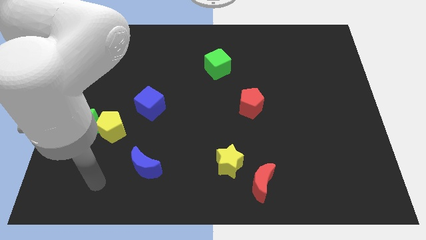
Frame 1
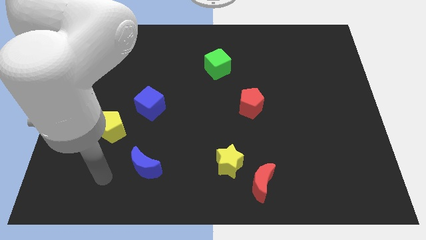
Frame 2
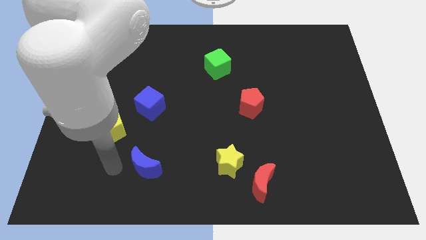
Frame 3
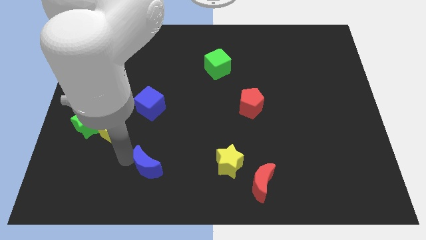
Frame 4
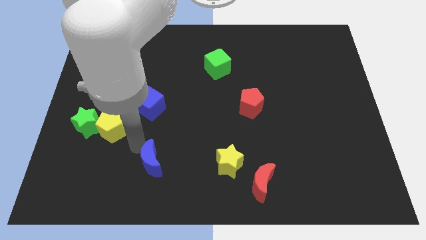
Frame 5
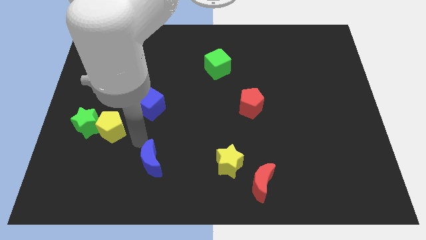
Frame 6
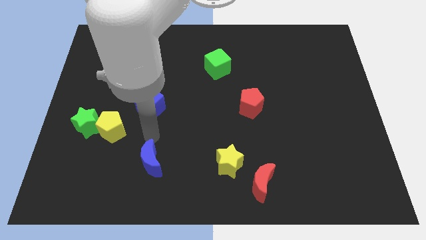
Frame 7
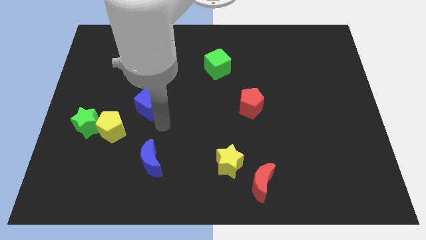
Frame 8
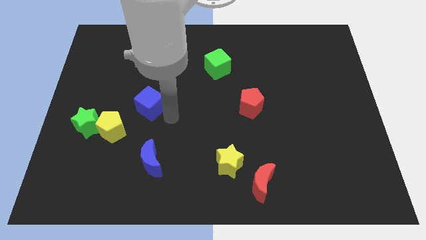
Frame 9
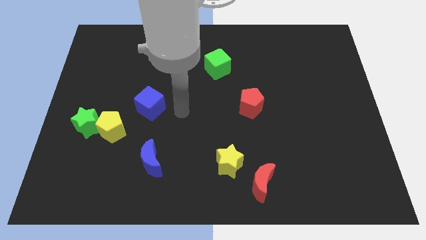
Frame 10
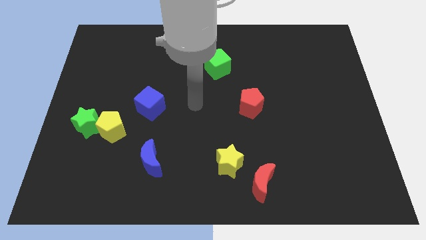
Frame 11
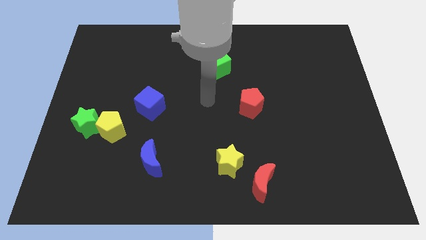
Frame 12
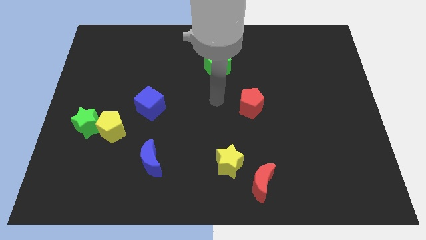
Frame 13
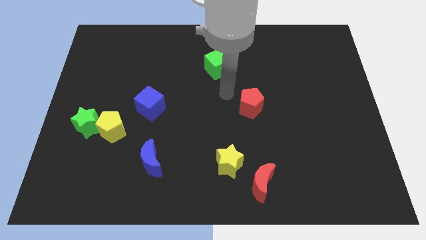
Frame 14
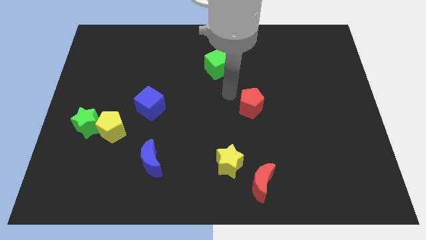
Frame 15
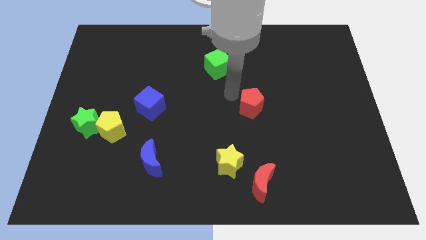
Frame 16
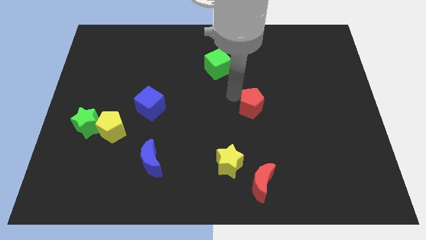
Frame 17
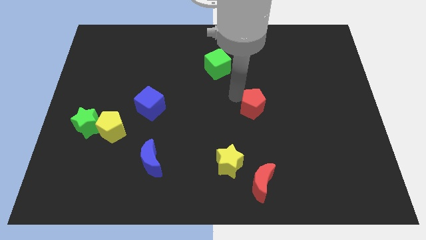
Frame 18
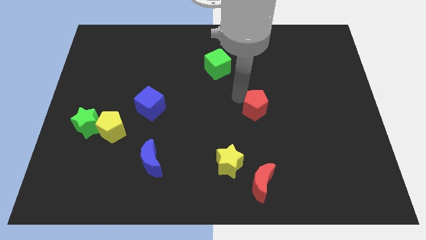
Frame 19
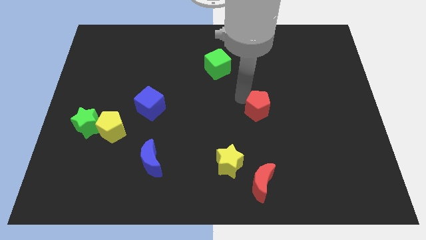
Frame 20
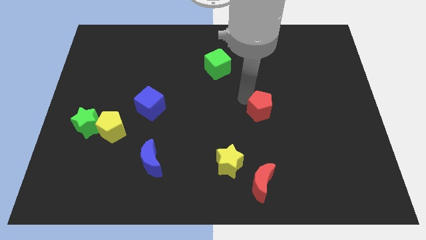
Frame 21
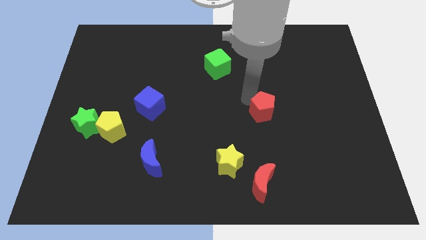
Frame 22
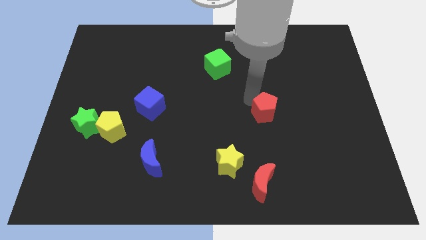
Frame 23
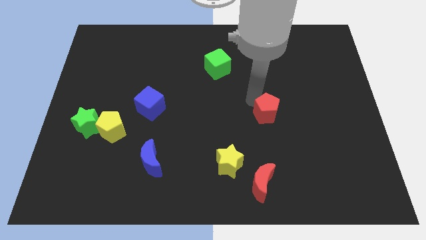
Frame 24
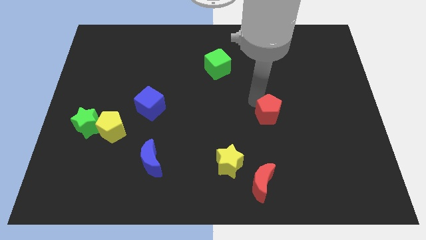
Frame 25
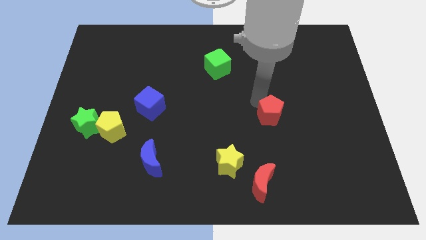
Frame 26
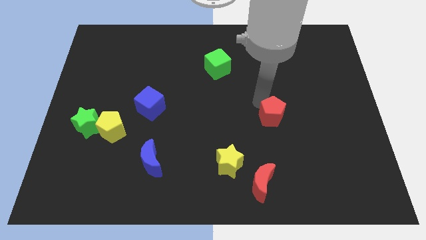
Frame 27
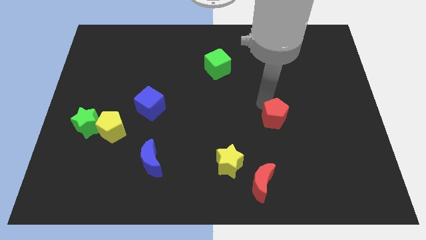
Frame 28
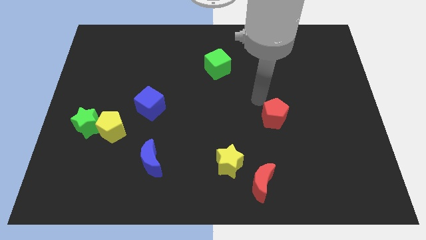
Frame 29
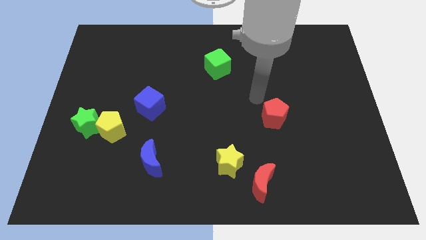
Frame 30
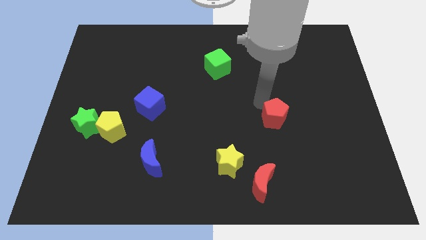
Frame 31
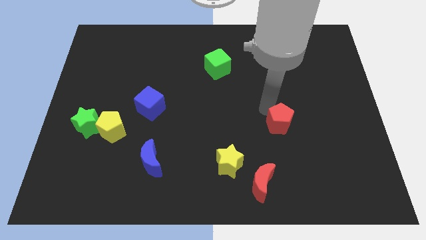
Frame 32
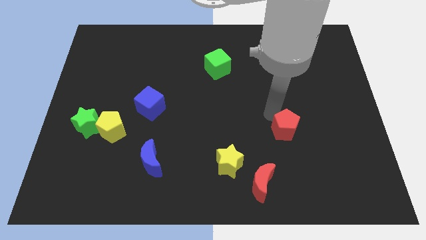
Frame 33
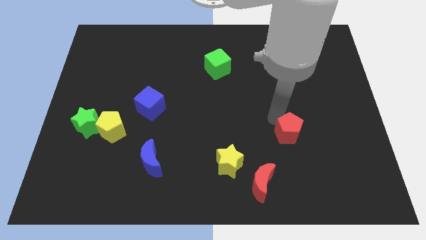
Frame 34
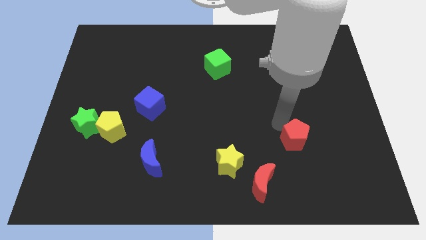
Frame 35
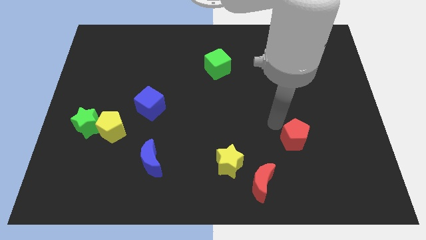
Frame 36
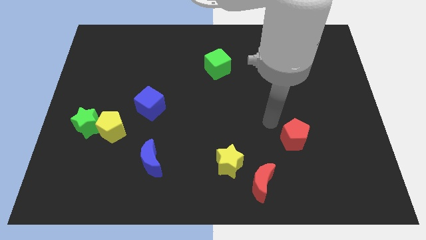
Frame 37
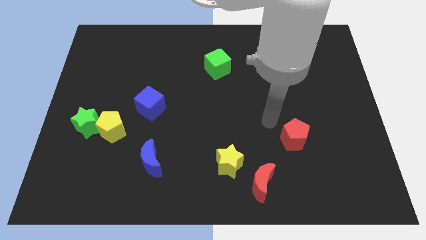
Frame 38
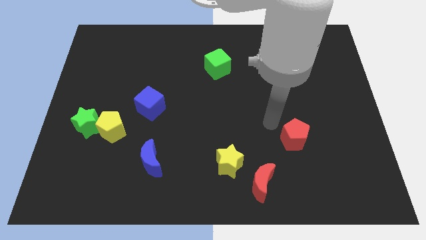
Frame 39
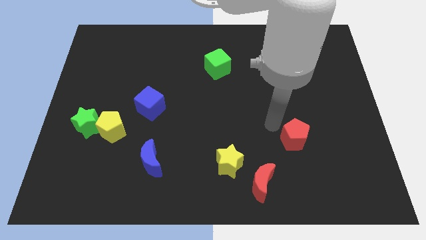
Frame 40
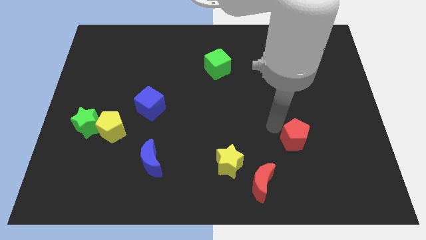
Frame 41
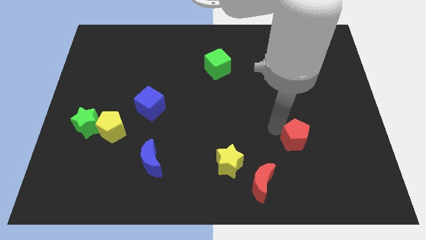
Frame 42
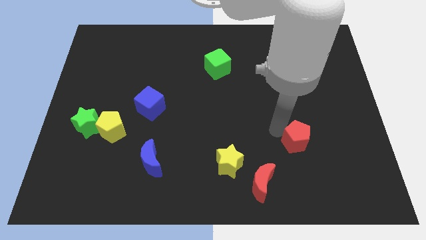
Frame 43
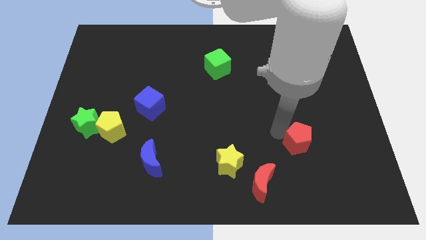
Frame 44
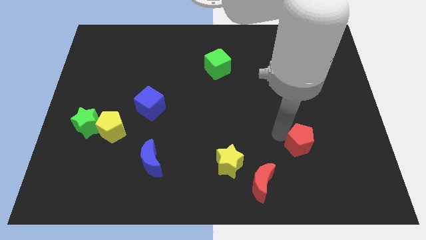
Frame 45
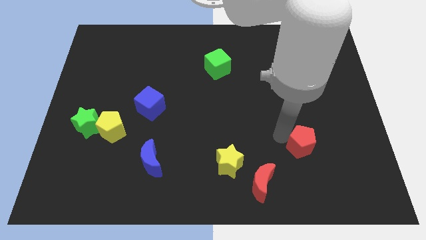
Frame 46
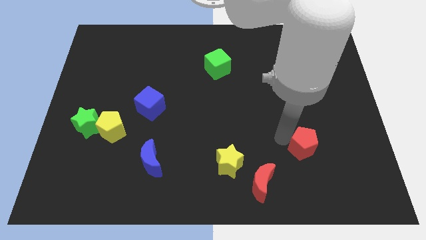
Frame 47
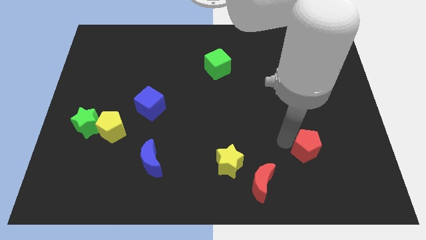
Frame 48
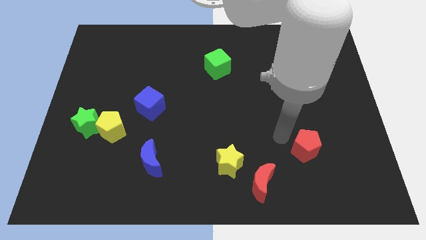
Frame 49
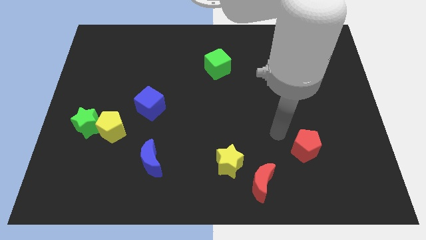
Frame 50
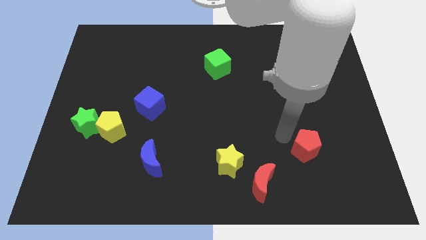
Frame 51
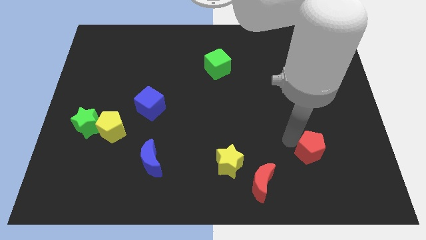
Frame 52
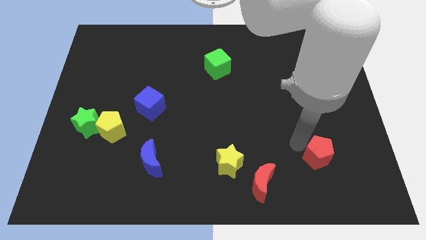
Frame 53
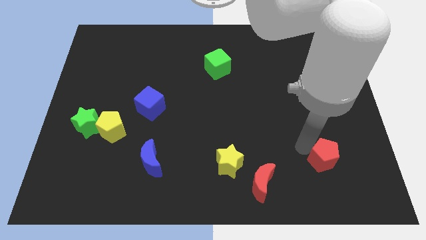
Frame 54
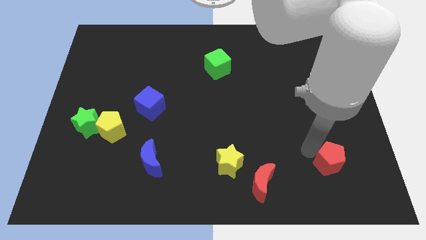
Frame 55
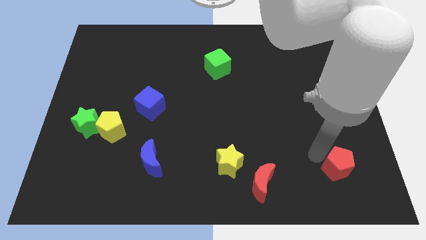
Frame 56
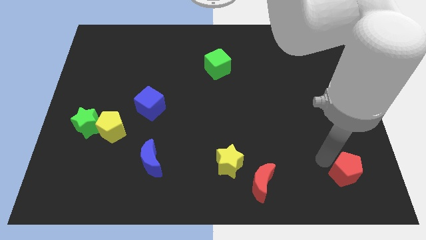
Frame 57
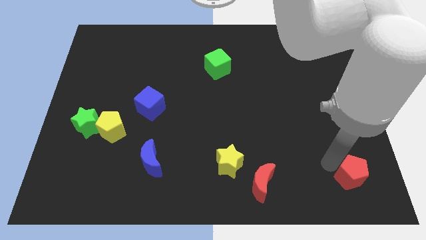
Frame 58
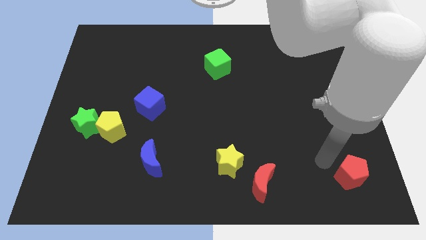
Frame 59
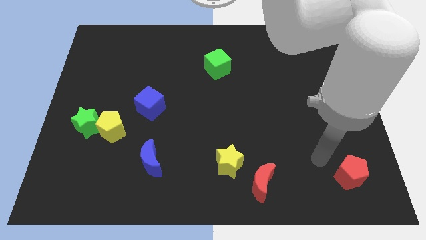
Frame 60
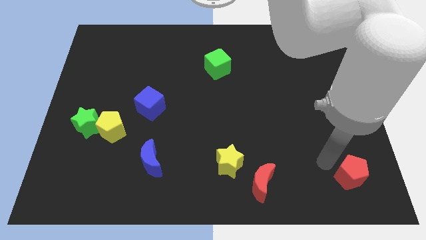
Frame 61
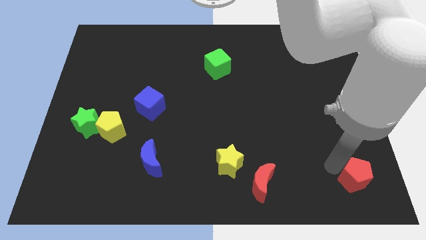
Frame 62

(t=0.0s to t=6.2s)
put the red pentagon to the bottom right of the board
